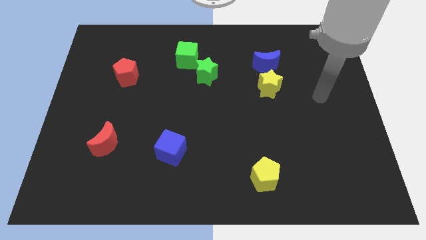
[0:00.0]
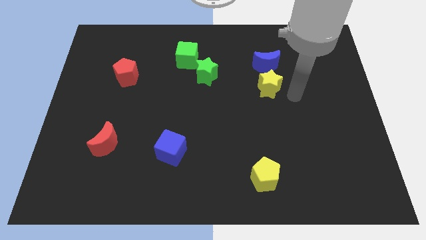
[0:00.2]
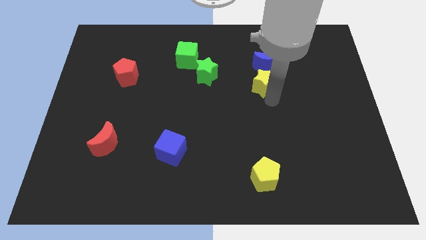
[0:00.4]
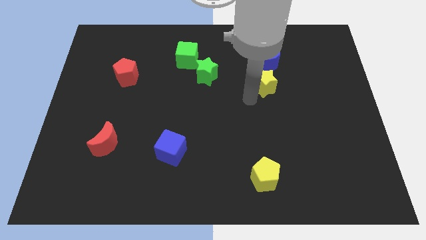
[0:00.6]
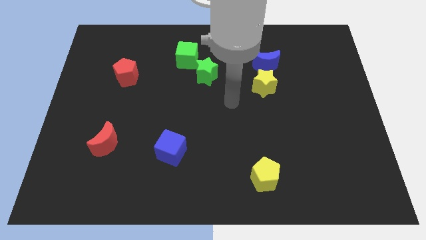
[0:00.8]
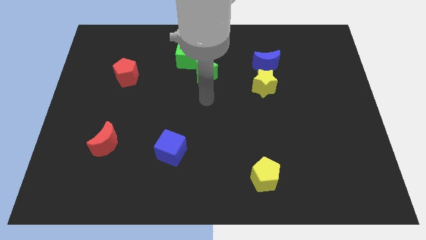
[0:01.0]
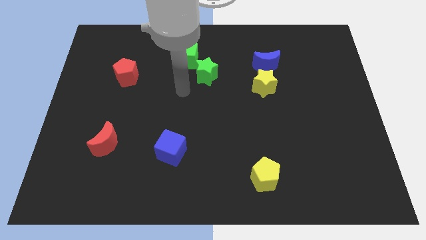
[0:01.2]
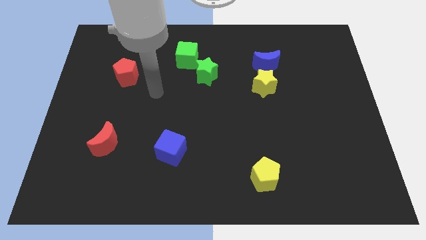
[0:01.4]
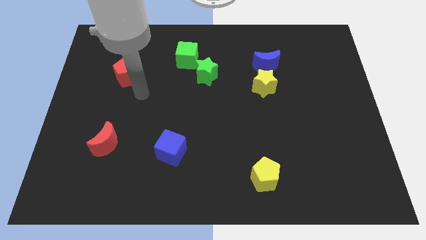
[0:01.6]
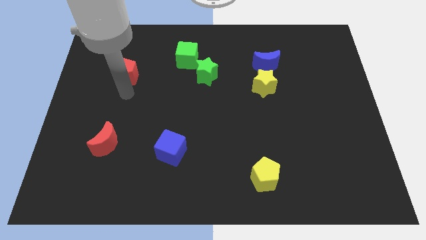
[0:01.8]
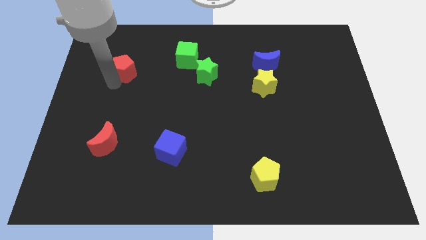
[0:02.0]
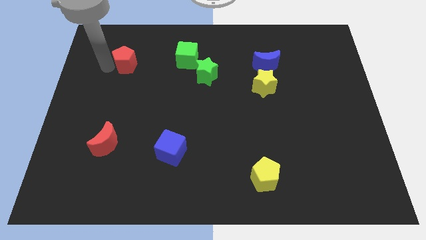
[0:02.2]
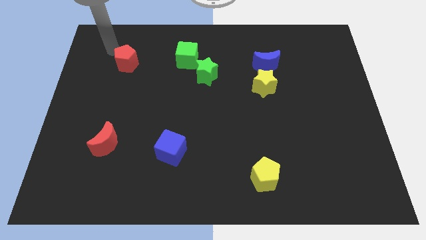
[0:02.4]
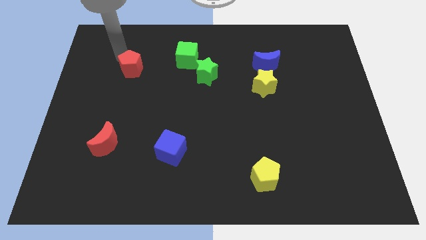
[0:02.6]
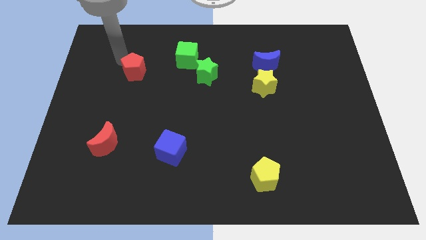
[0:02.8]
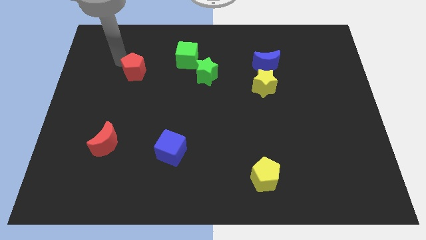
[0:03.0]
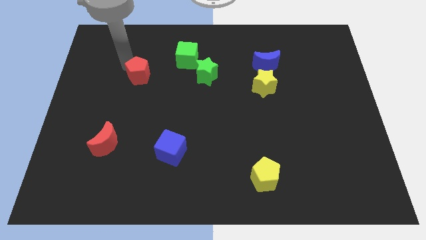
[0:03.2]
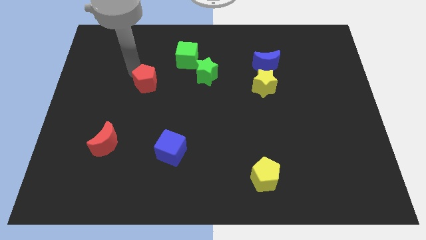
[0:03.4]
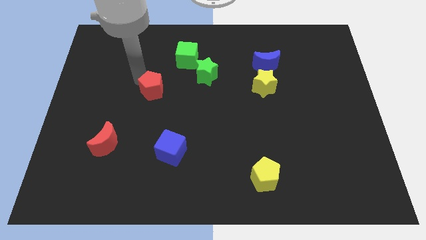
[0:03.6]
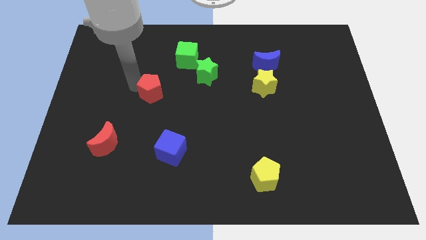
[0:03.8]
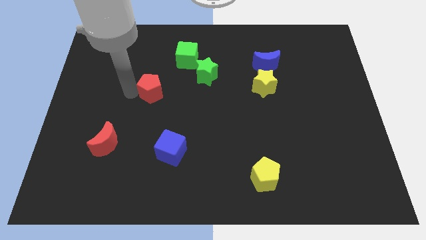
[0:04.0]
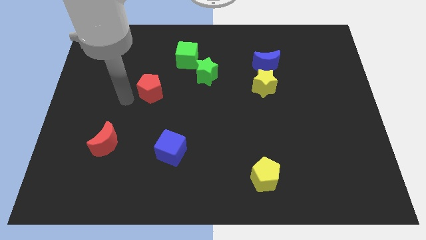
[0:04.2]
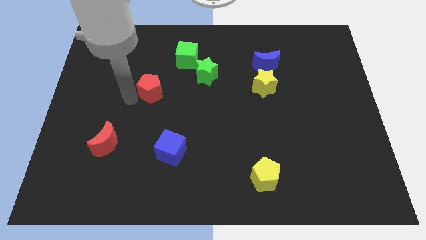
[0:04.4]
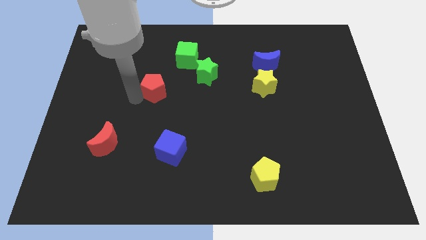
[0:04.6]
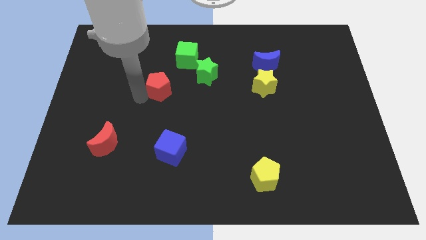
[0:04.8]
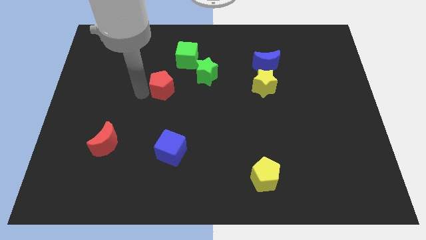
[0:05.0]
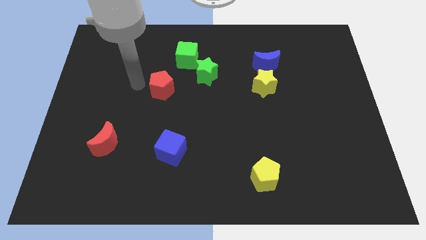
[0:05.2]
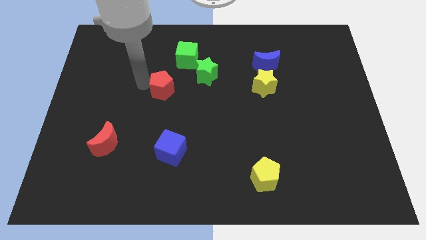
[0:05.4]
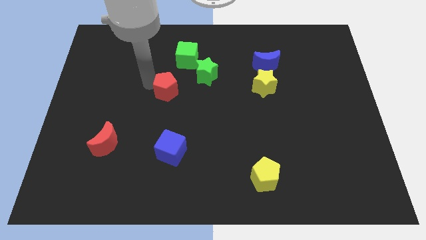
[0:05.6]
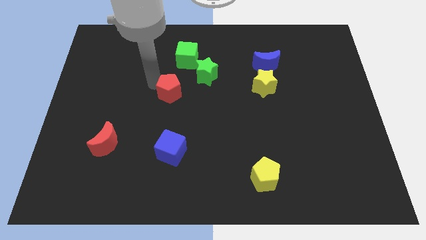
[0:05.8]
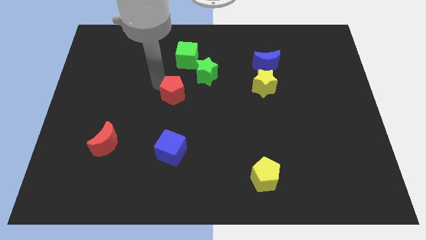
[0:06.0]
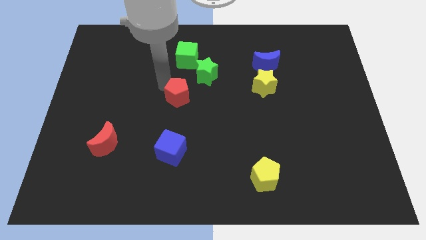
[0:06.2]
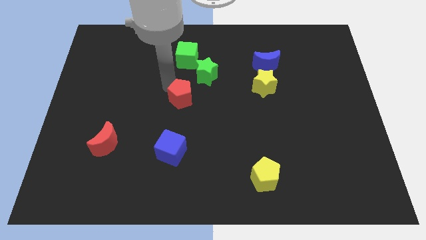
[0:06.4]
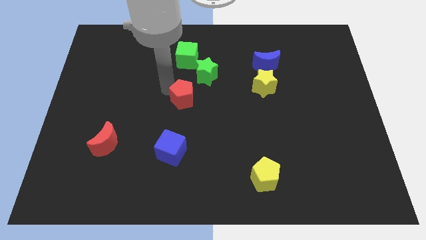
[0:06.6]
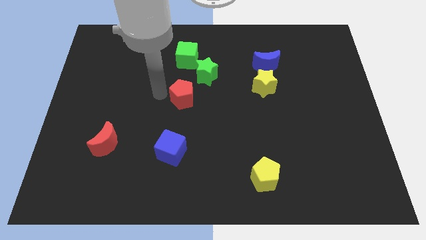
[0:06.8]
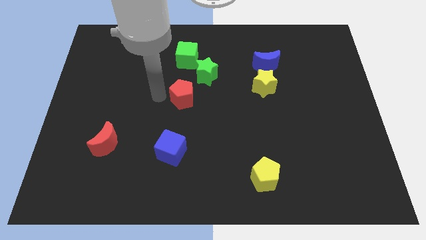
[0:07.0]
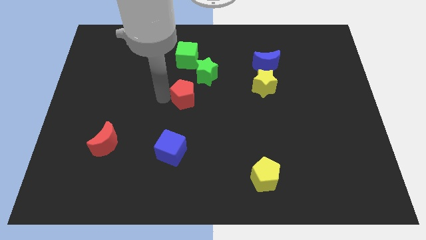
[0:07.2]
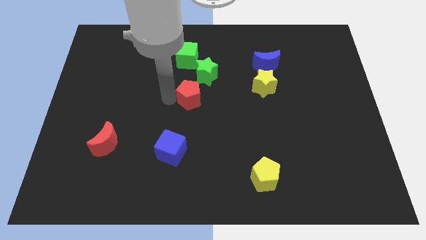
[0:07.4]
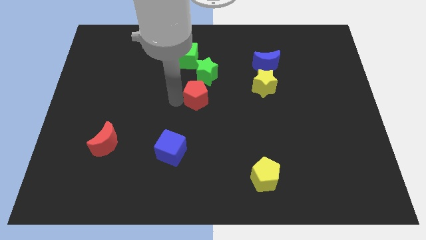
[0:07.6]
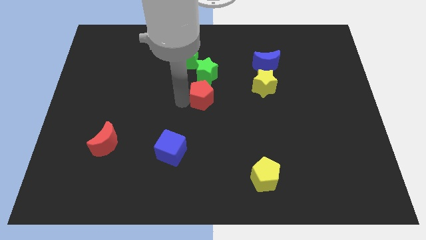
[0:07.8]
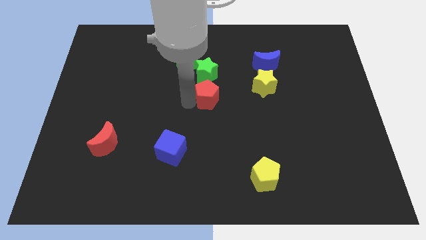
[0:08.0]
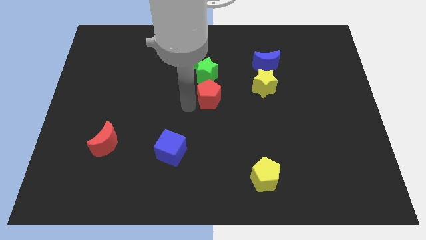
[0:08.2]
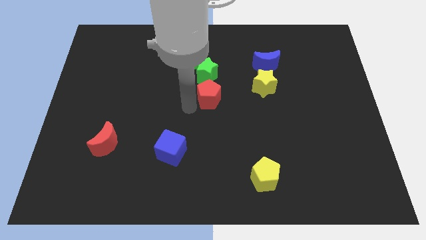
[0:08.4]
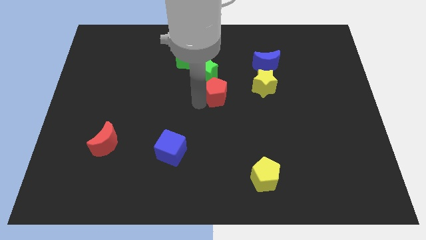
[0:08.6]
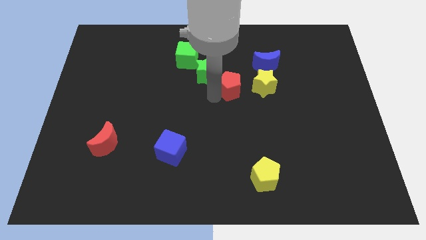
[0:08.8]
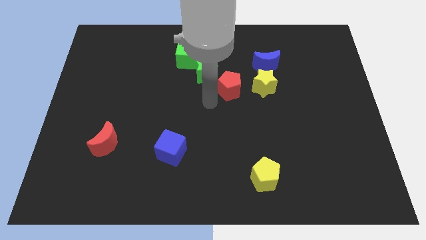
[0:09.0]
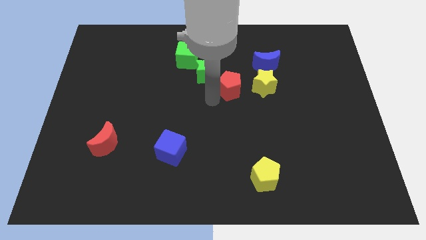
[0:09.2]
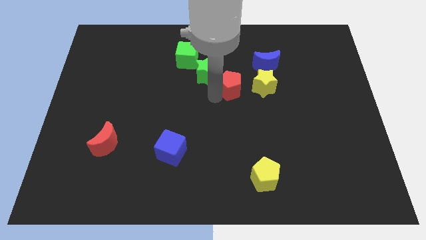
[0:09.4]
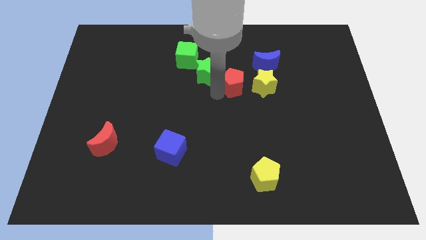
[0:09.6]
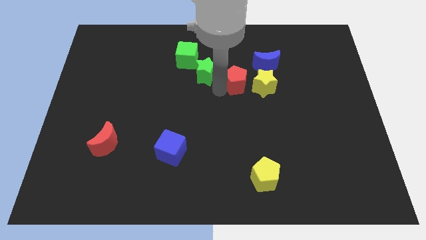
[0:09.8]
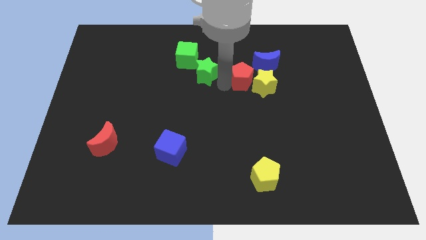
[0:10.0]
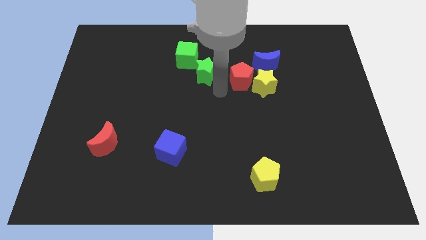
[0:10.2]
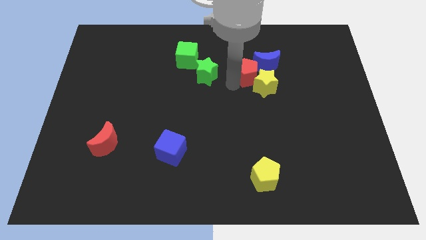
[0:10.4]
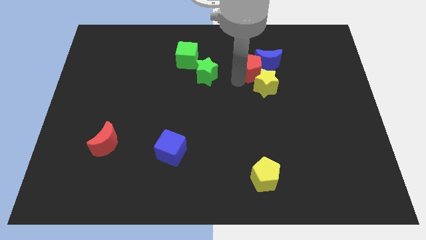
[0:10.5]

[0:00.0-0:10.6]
slide the red pentagon close to the blue moon

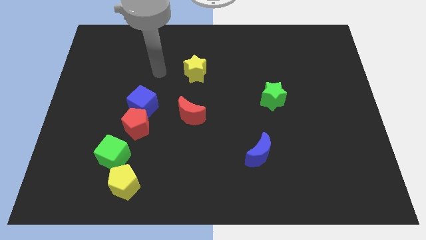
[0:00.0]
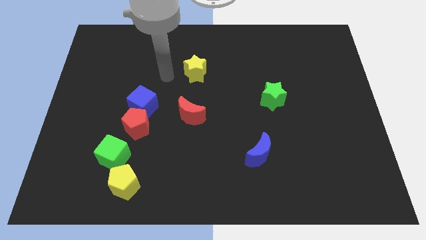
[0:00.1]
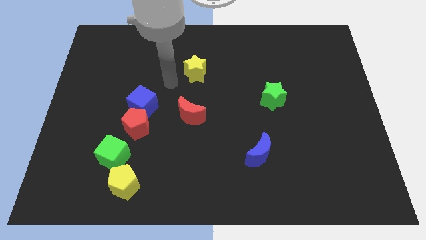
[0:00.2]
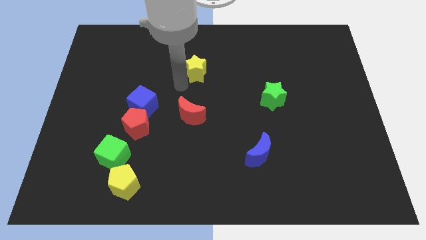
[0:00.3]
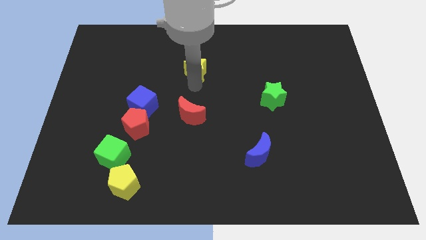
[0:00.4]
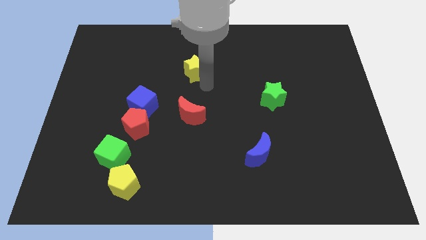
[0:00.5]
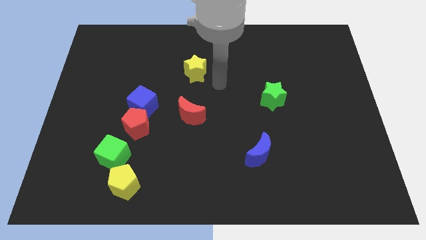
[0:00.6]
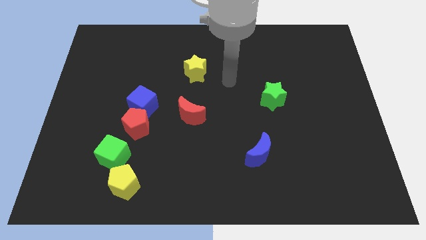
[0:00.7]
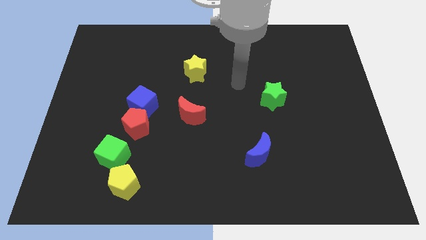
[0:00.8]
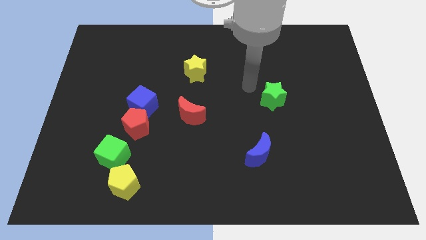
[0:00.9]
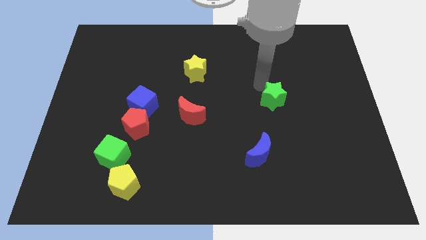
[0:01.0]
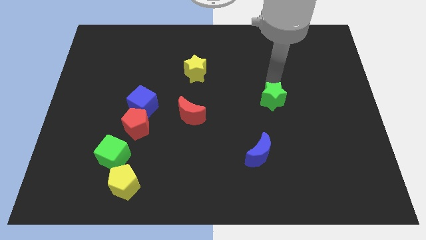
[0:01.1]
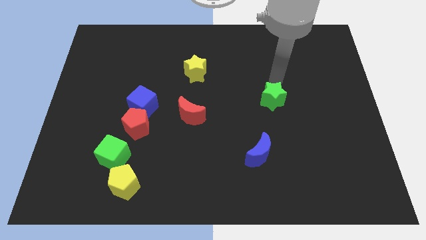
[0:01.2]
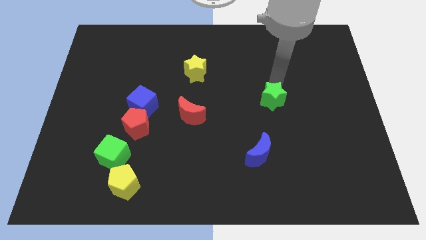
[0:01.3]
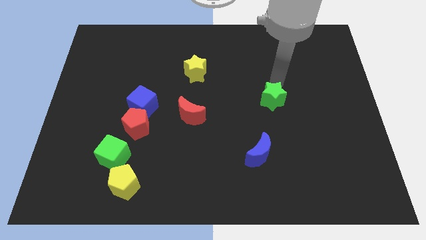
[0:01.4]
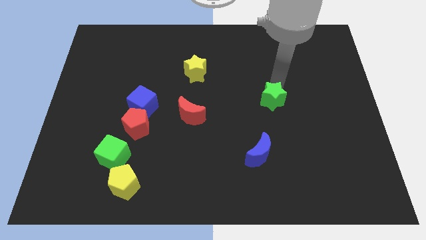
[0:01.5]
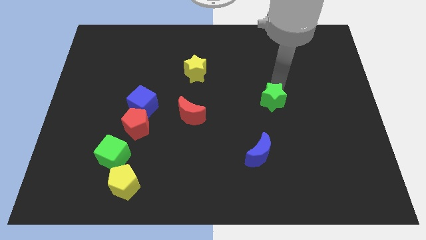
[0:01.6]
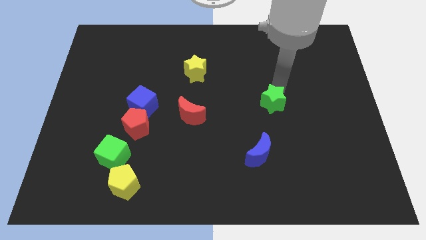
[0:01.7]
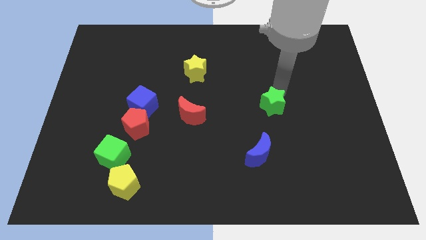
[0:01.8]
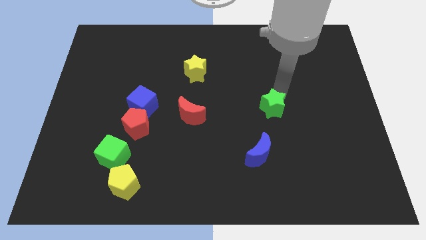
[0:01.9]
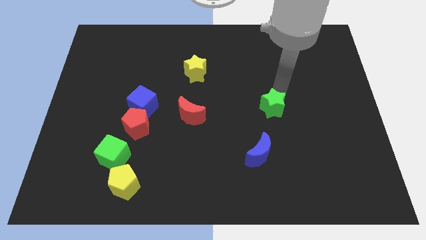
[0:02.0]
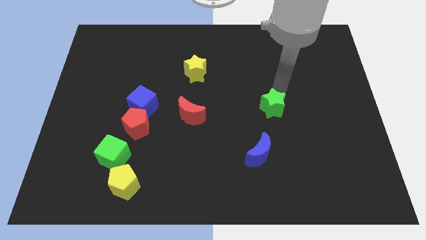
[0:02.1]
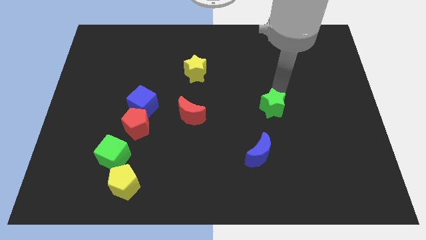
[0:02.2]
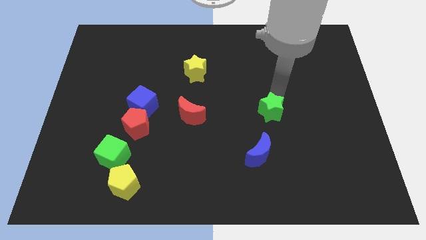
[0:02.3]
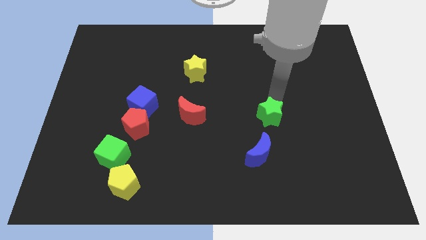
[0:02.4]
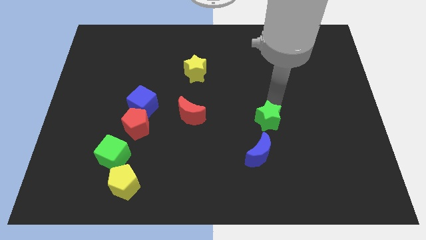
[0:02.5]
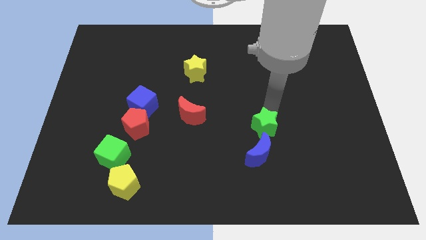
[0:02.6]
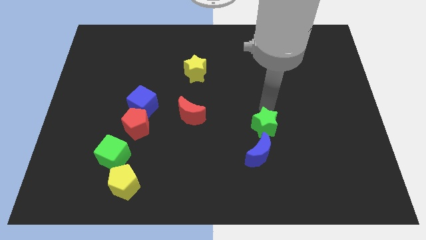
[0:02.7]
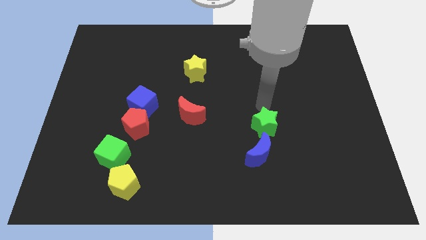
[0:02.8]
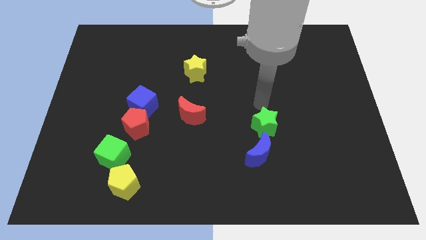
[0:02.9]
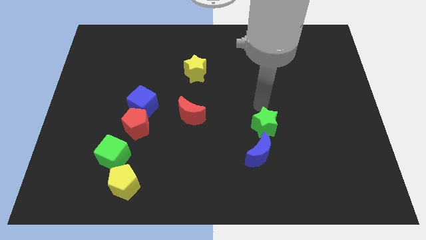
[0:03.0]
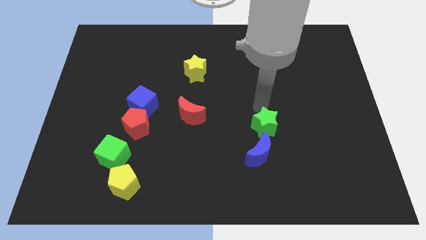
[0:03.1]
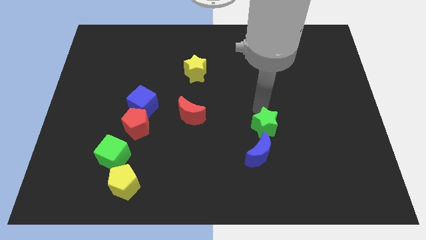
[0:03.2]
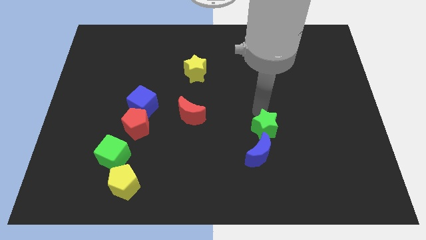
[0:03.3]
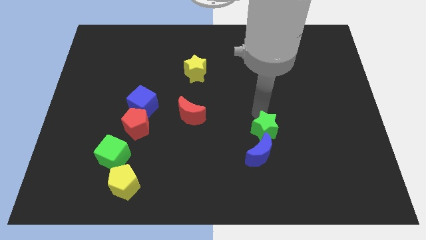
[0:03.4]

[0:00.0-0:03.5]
slide the green star to the blue moon
